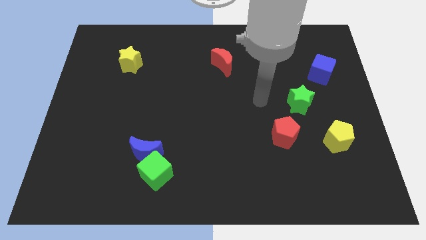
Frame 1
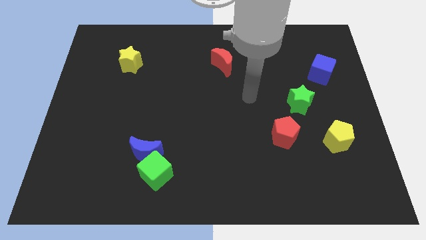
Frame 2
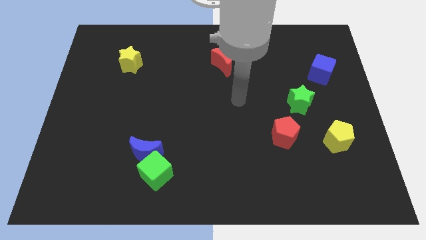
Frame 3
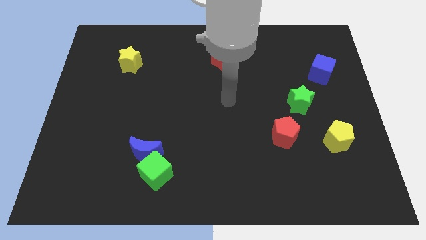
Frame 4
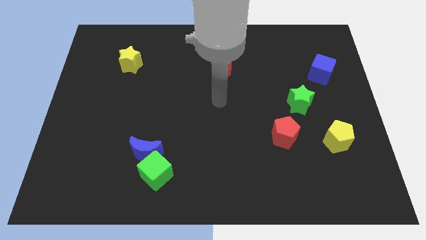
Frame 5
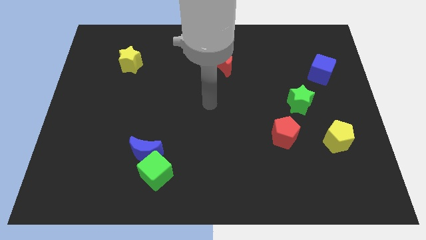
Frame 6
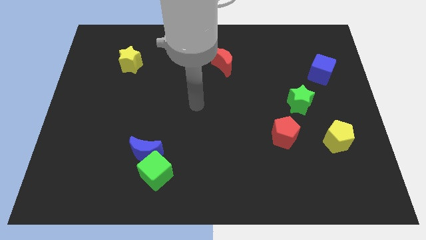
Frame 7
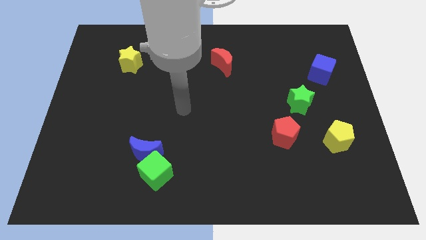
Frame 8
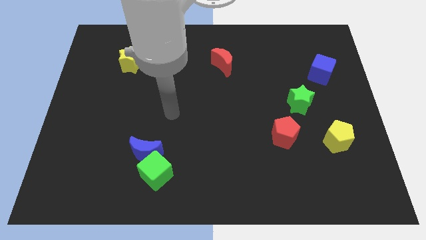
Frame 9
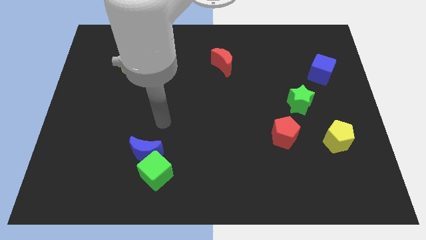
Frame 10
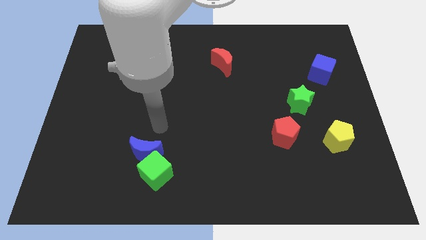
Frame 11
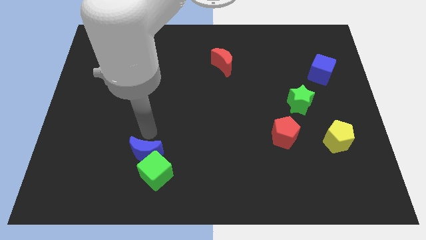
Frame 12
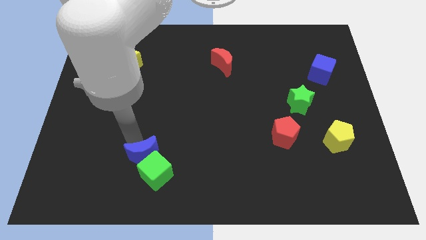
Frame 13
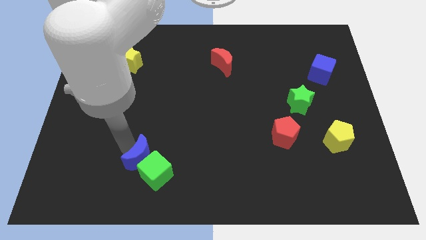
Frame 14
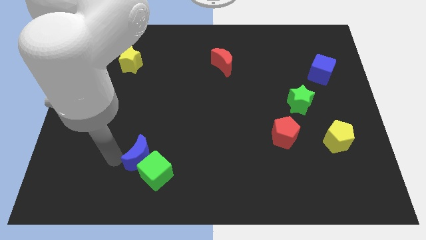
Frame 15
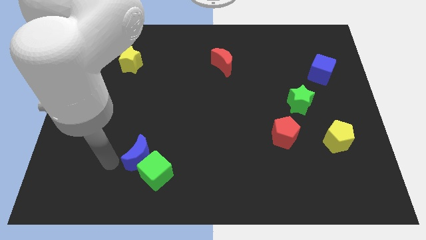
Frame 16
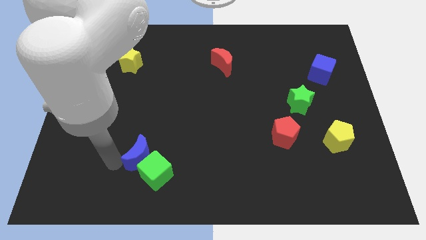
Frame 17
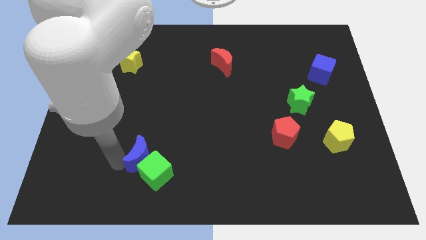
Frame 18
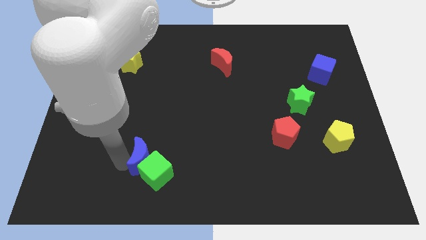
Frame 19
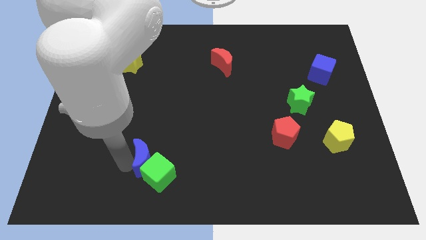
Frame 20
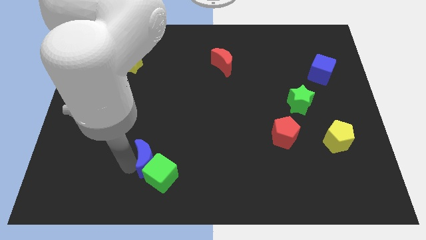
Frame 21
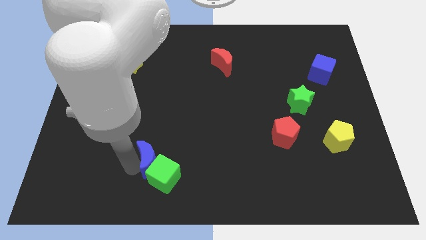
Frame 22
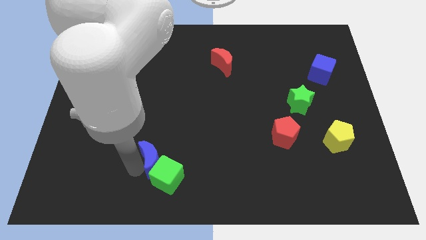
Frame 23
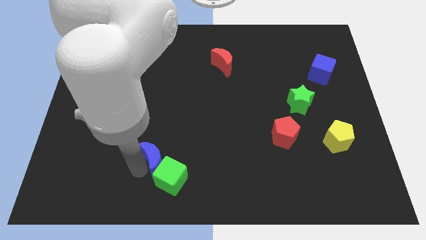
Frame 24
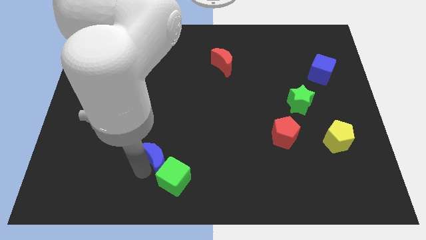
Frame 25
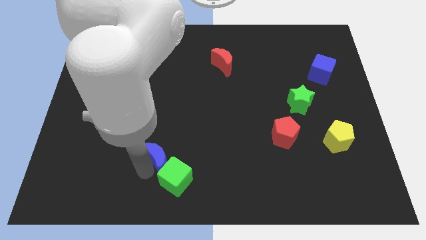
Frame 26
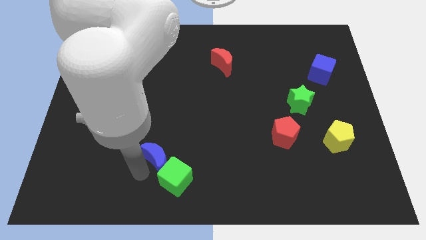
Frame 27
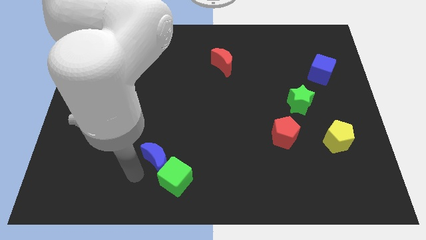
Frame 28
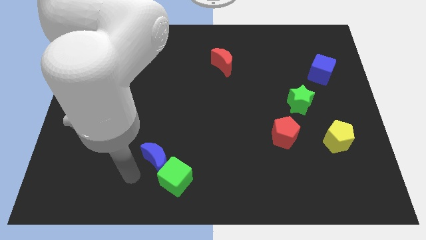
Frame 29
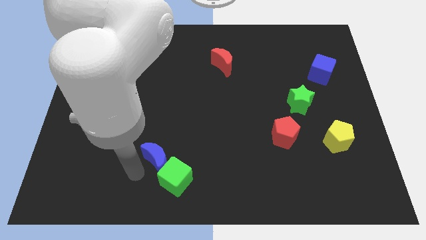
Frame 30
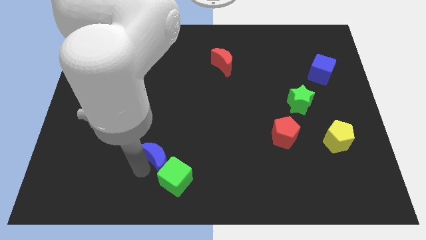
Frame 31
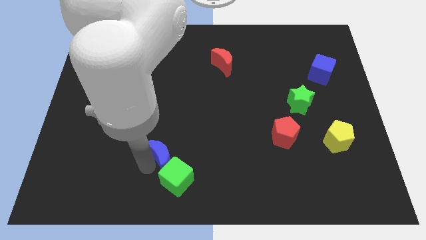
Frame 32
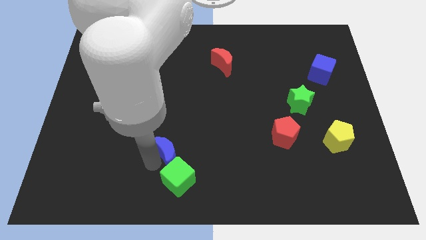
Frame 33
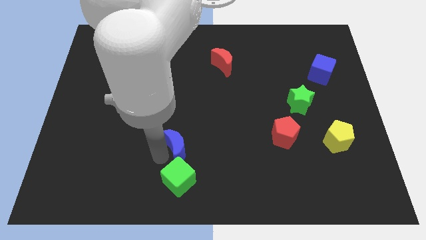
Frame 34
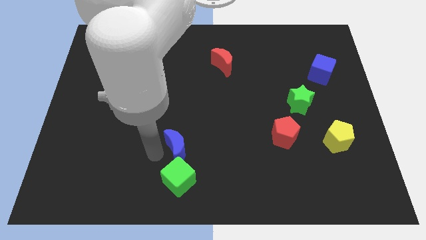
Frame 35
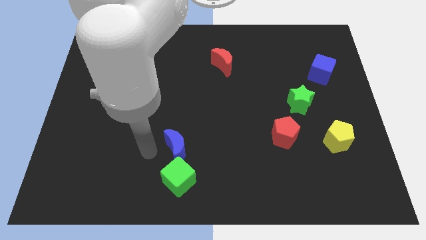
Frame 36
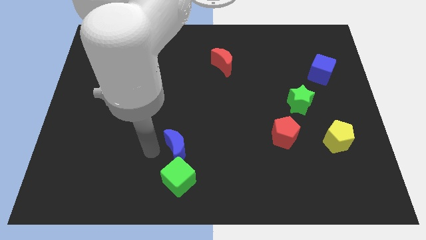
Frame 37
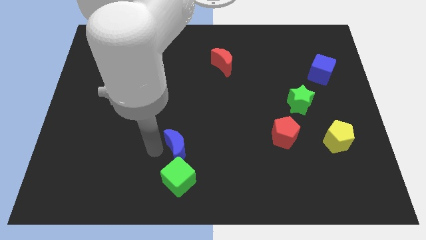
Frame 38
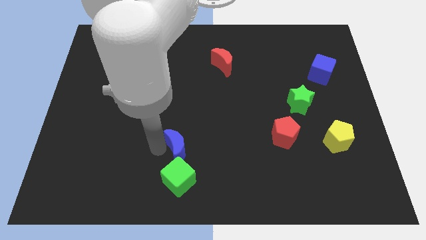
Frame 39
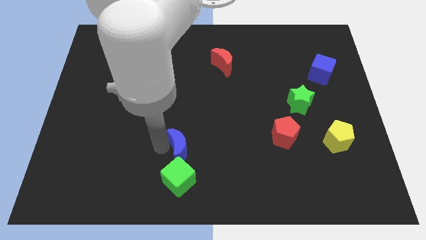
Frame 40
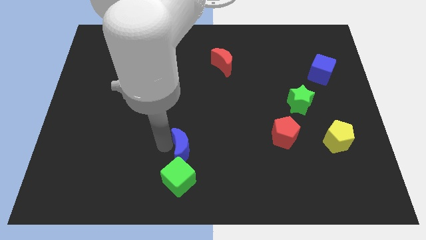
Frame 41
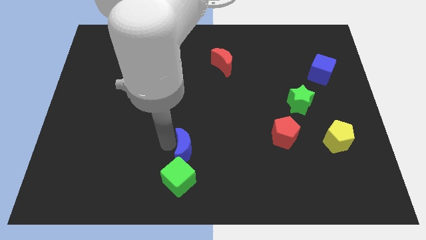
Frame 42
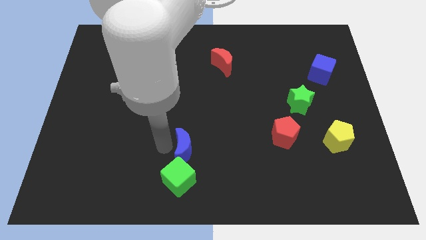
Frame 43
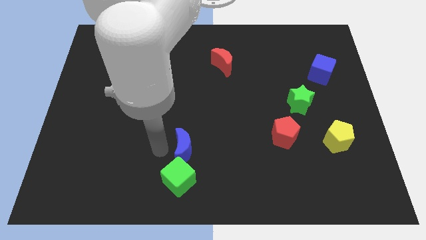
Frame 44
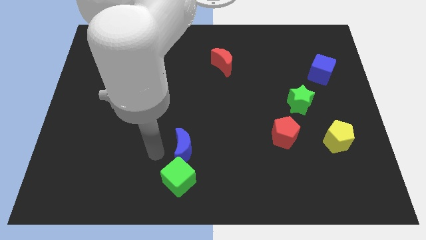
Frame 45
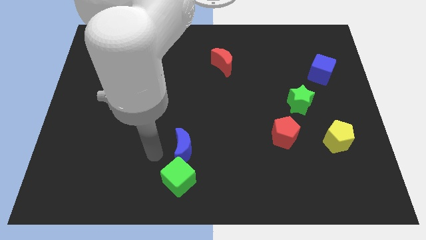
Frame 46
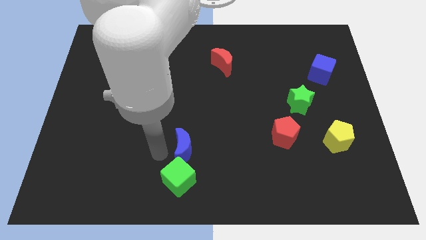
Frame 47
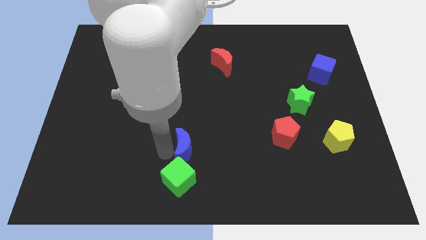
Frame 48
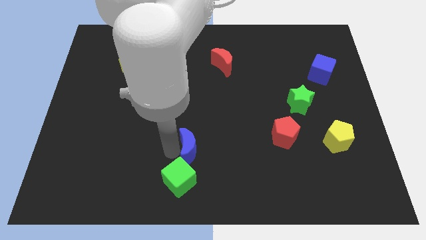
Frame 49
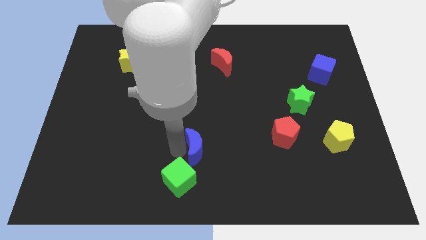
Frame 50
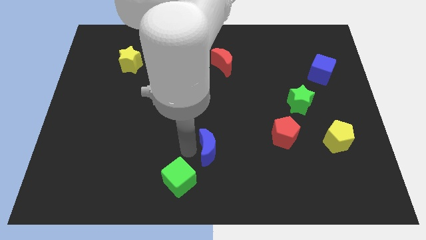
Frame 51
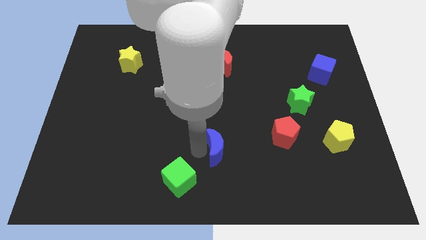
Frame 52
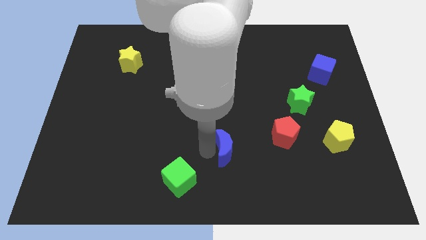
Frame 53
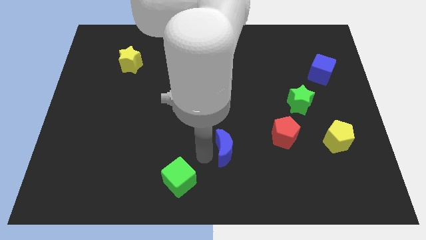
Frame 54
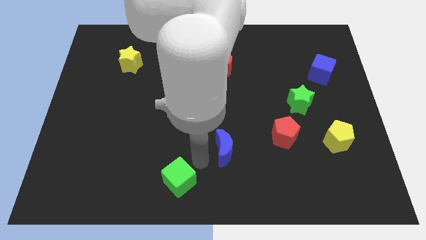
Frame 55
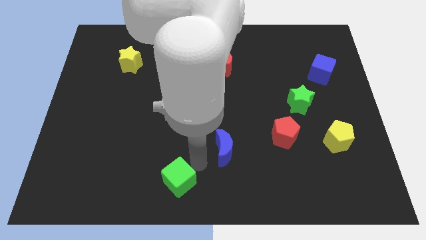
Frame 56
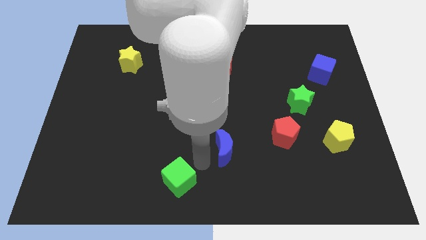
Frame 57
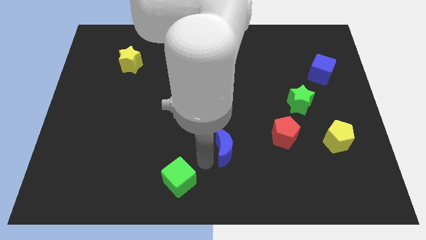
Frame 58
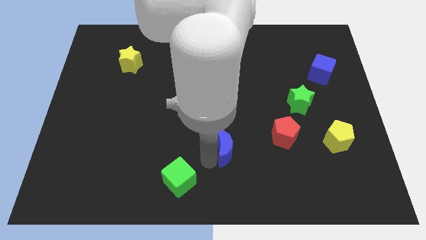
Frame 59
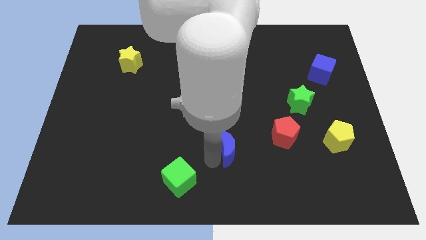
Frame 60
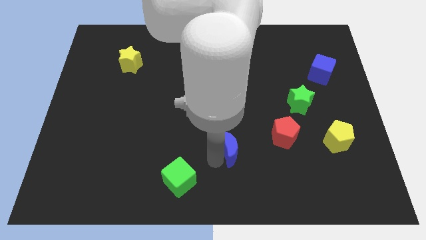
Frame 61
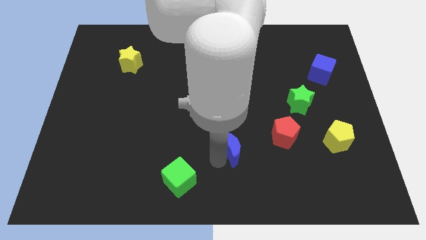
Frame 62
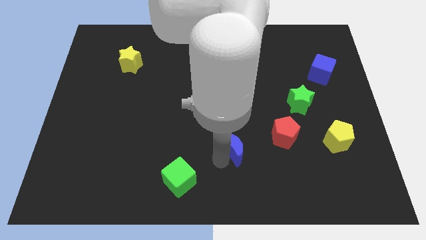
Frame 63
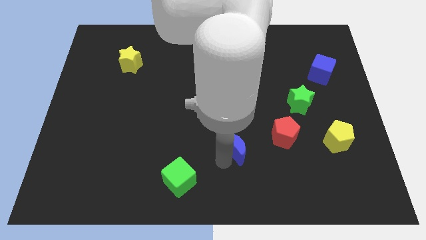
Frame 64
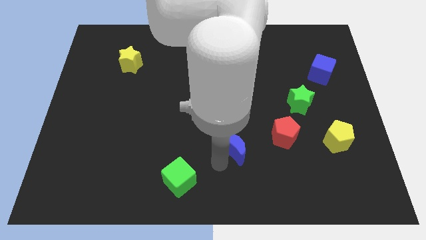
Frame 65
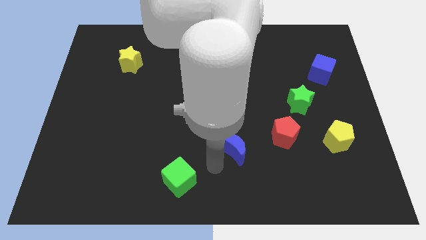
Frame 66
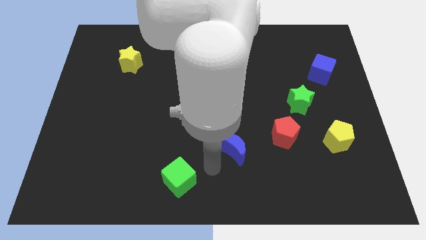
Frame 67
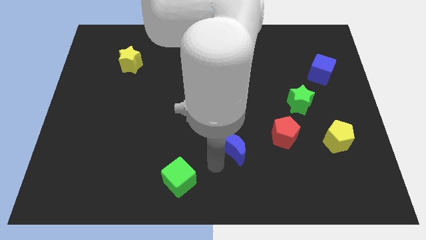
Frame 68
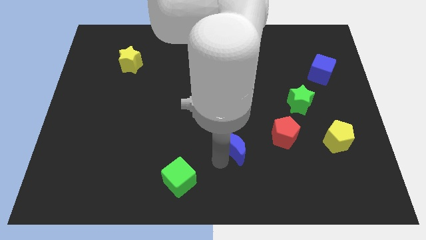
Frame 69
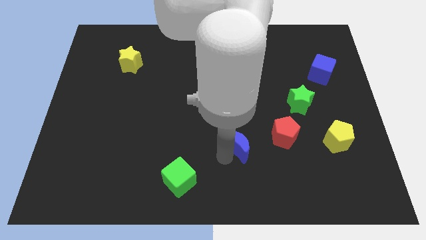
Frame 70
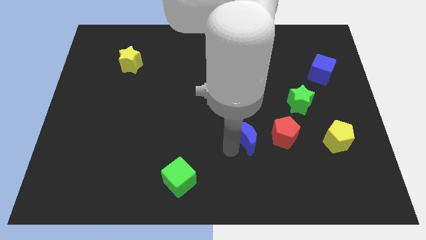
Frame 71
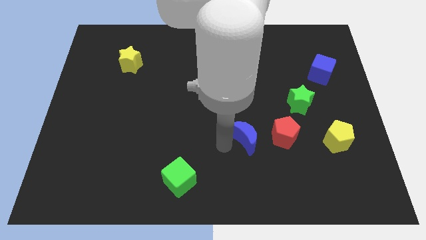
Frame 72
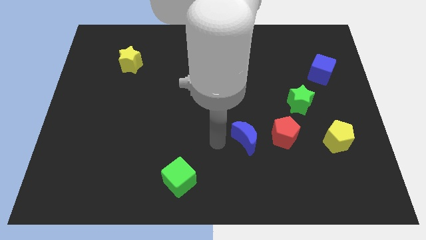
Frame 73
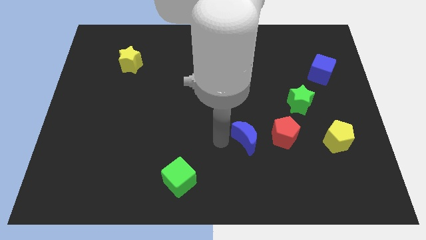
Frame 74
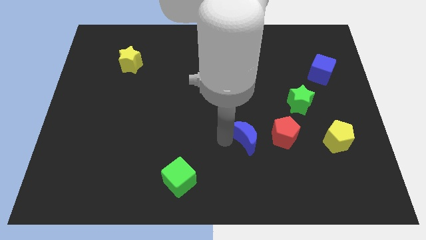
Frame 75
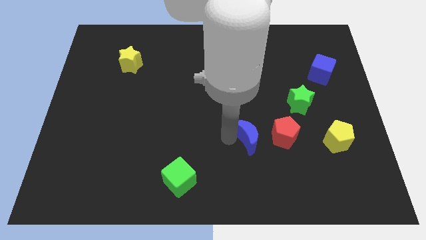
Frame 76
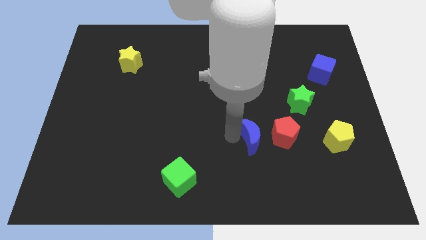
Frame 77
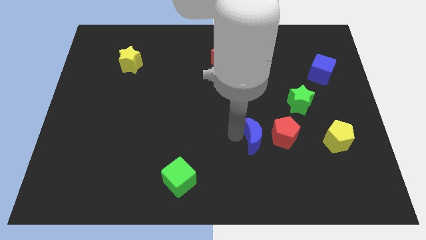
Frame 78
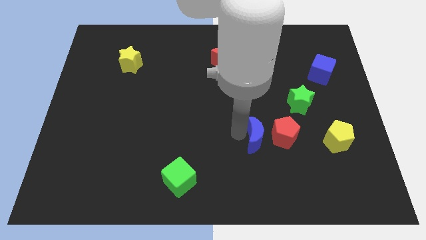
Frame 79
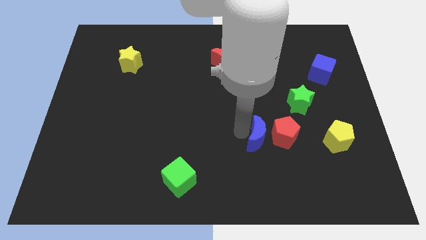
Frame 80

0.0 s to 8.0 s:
push the blue moon to the red pentagon

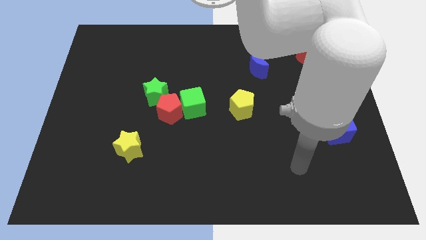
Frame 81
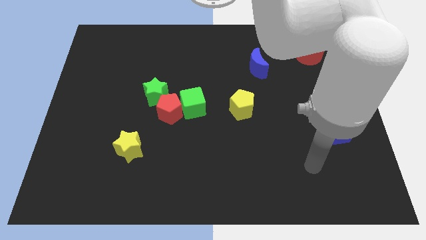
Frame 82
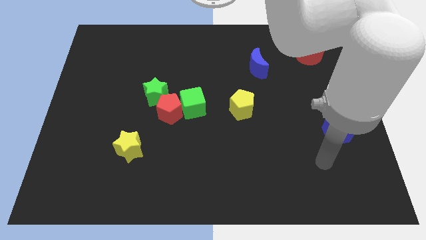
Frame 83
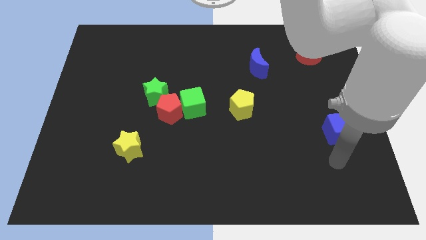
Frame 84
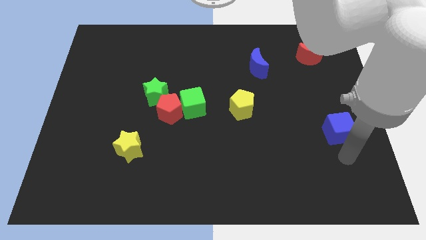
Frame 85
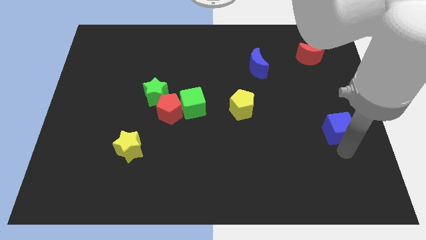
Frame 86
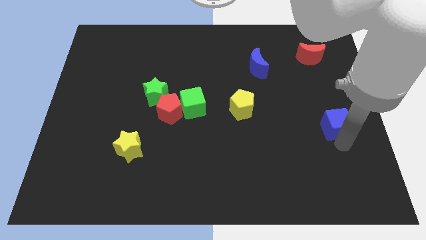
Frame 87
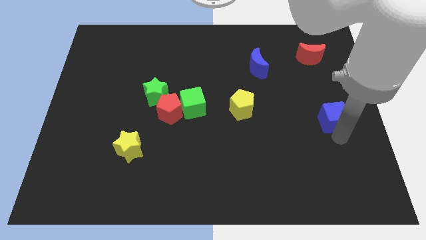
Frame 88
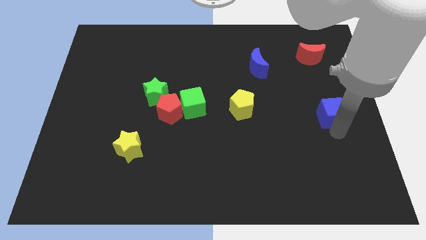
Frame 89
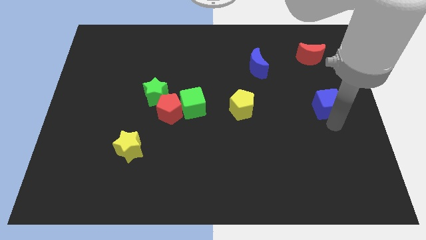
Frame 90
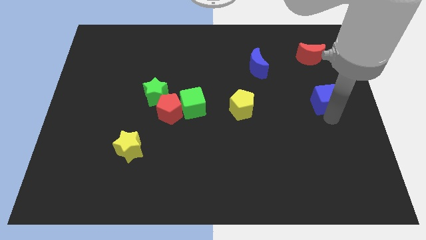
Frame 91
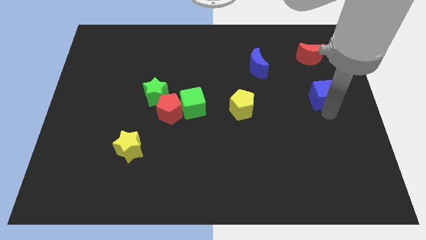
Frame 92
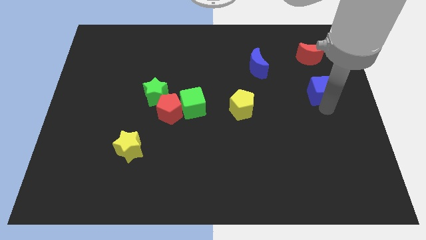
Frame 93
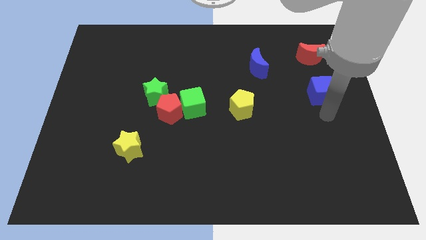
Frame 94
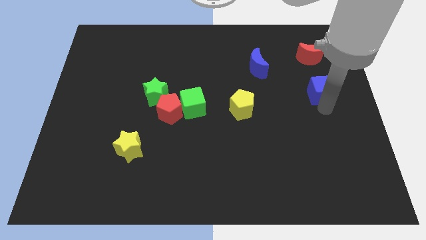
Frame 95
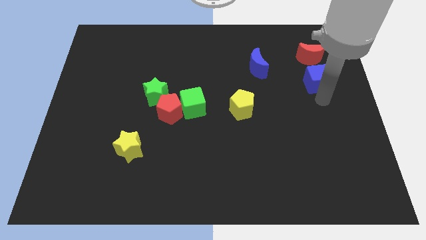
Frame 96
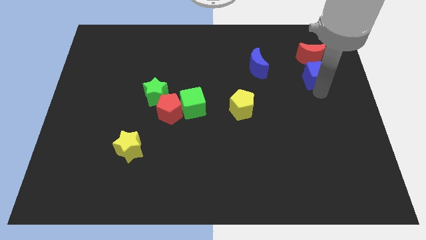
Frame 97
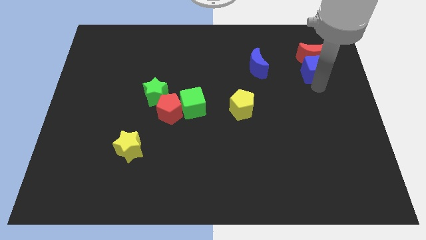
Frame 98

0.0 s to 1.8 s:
put the blue cube towards the red moon
